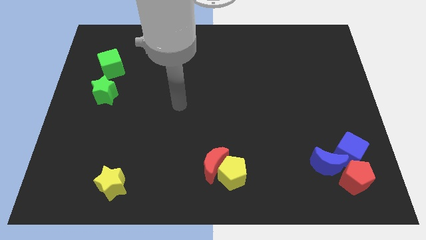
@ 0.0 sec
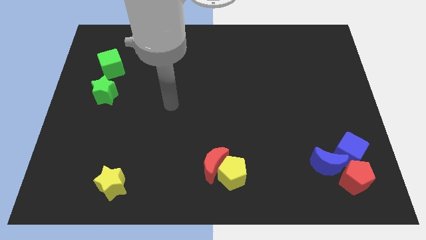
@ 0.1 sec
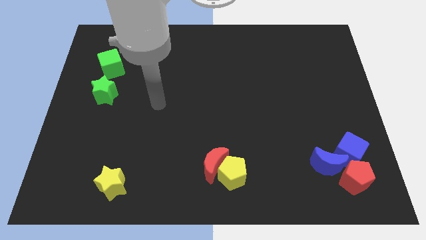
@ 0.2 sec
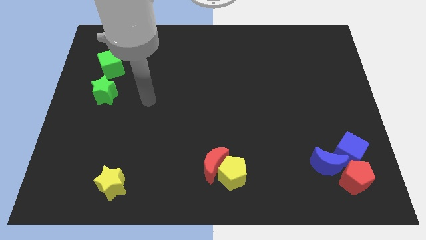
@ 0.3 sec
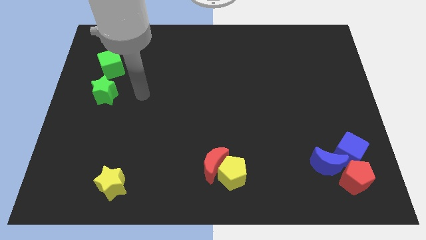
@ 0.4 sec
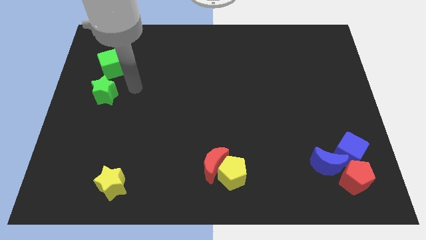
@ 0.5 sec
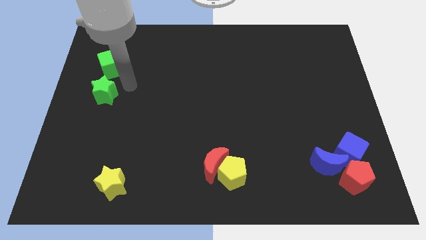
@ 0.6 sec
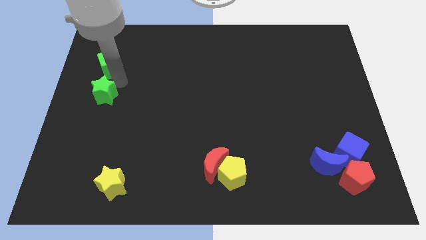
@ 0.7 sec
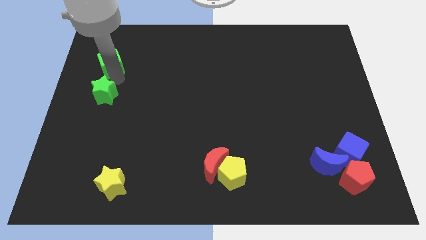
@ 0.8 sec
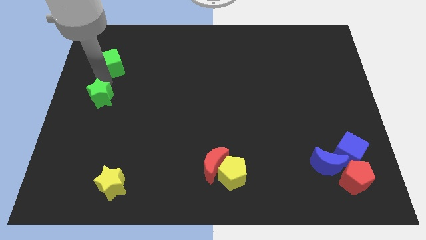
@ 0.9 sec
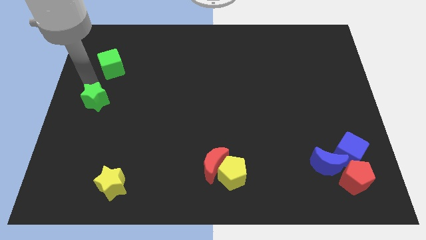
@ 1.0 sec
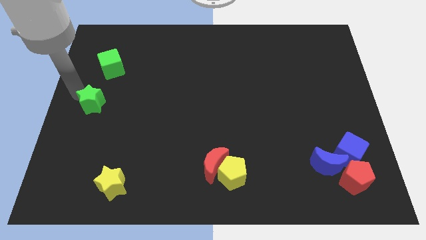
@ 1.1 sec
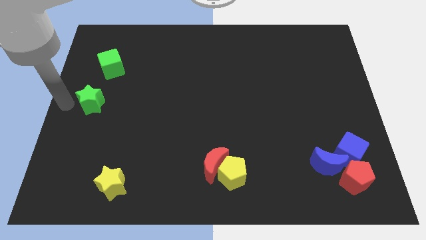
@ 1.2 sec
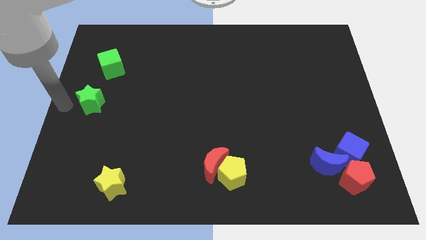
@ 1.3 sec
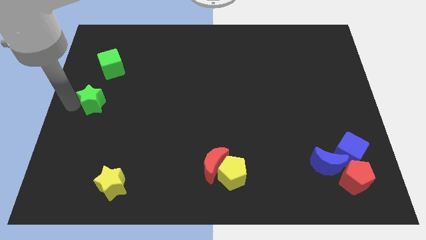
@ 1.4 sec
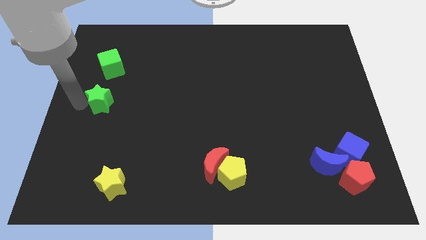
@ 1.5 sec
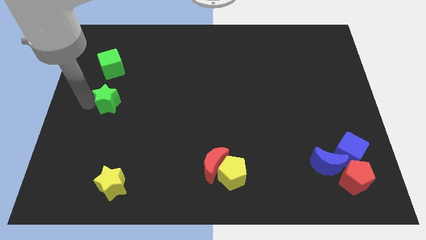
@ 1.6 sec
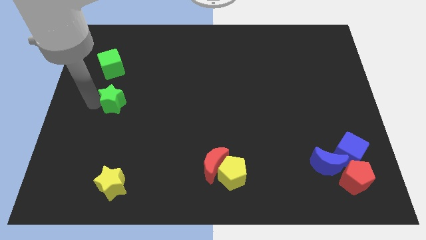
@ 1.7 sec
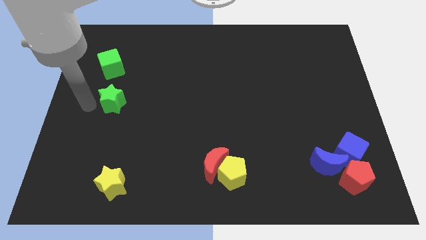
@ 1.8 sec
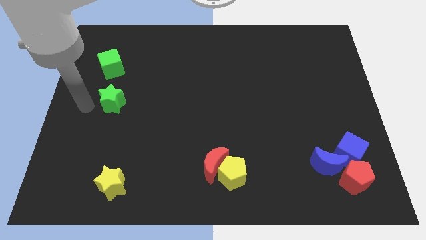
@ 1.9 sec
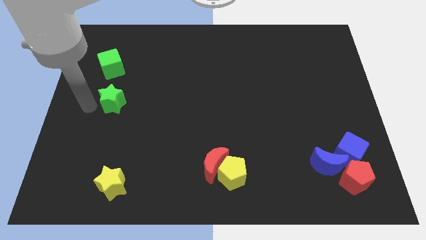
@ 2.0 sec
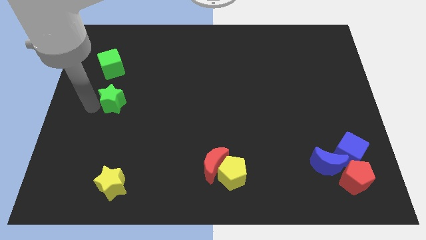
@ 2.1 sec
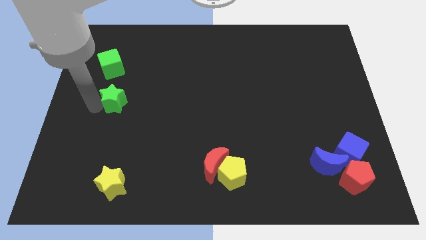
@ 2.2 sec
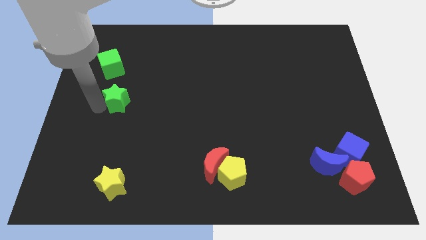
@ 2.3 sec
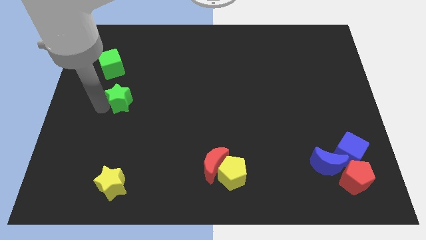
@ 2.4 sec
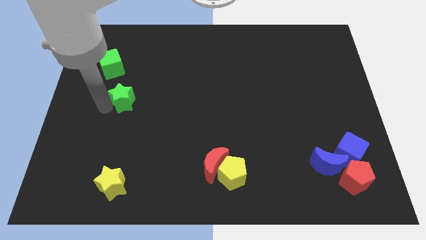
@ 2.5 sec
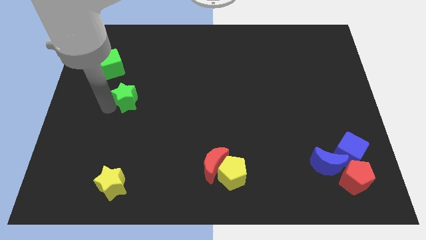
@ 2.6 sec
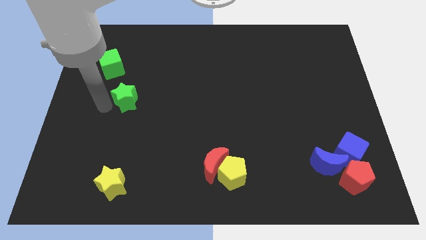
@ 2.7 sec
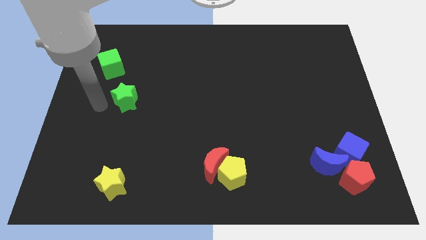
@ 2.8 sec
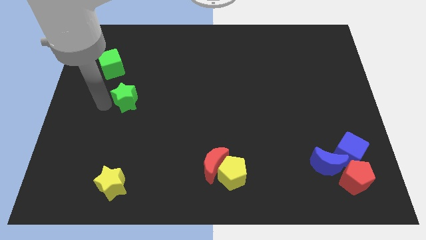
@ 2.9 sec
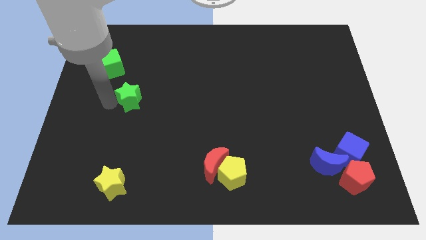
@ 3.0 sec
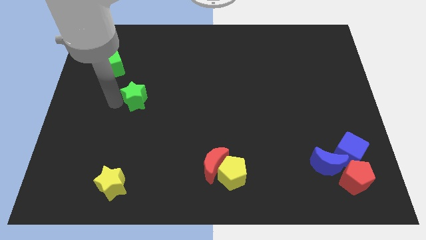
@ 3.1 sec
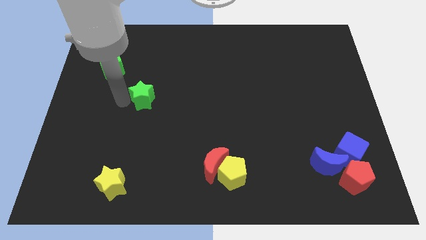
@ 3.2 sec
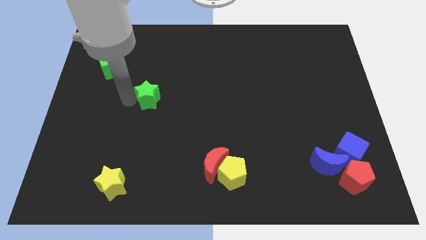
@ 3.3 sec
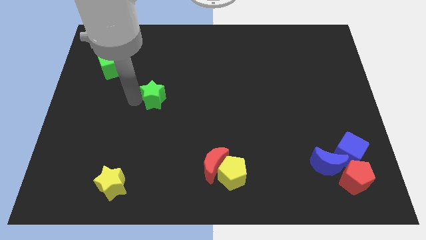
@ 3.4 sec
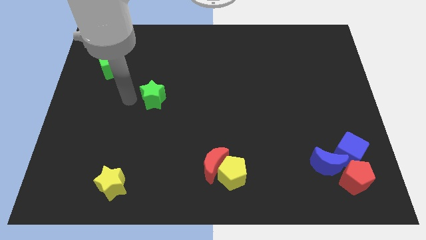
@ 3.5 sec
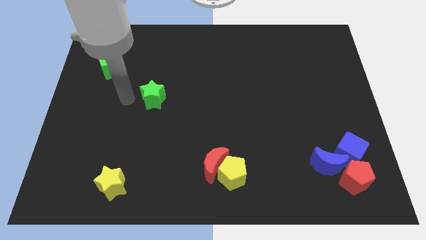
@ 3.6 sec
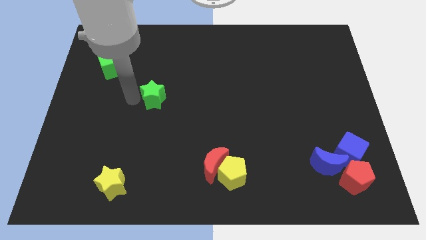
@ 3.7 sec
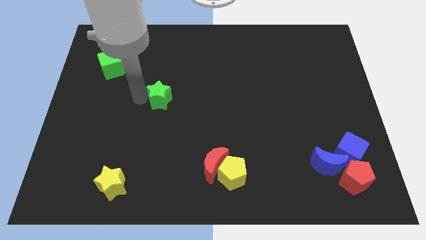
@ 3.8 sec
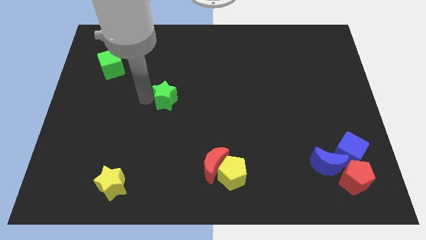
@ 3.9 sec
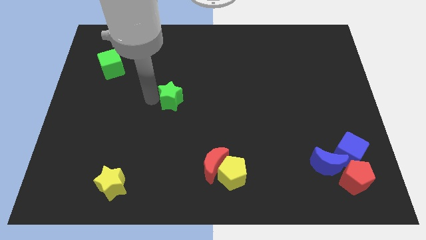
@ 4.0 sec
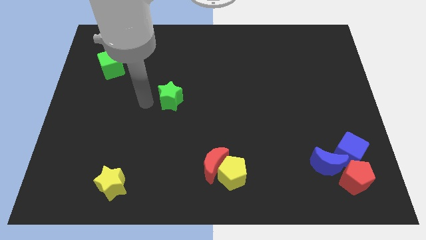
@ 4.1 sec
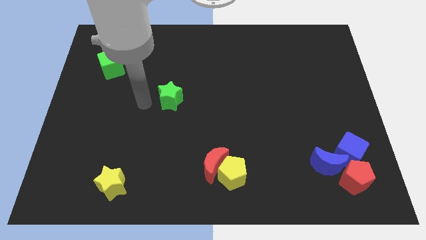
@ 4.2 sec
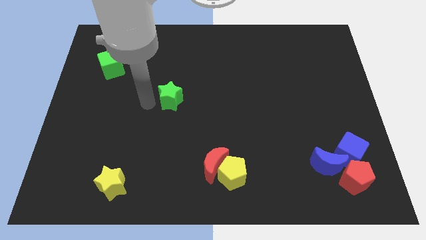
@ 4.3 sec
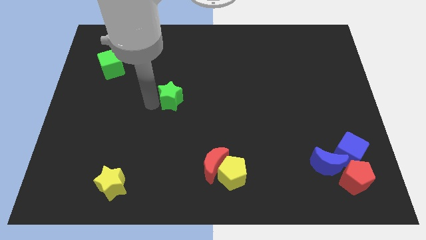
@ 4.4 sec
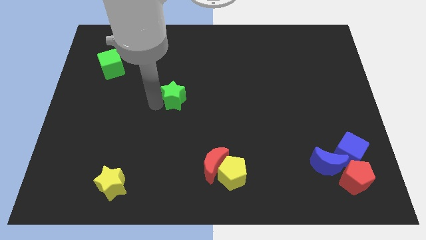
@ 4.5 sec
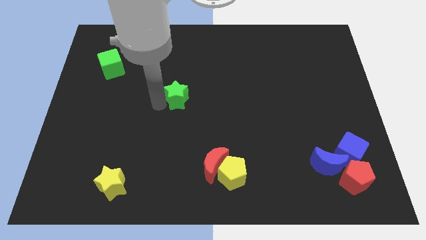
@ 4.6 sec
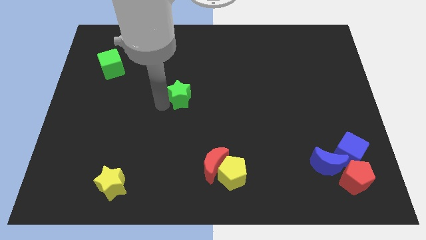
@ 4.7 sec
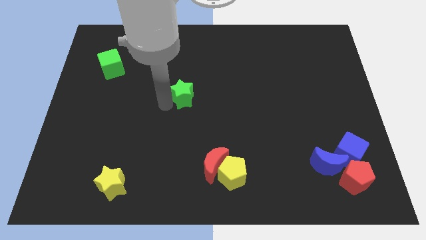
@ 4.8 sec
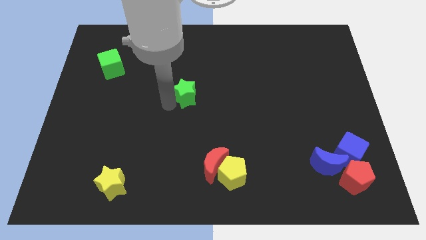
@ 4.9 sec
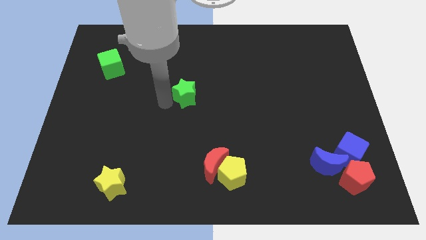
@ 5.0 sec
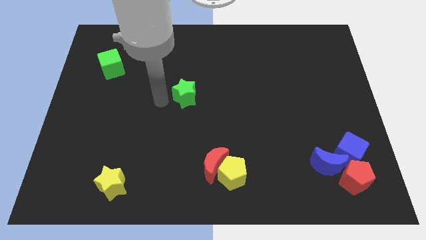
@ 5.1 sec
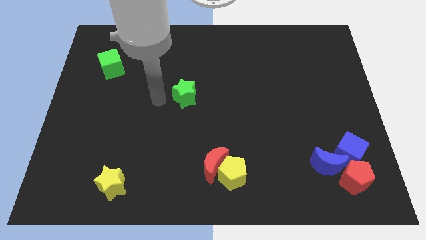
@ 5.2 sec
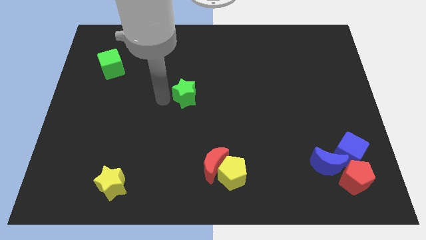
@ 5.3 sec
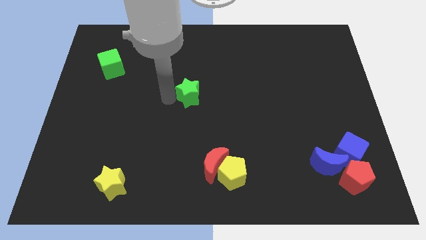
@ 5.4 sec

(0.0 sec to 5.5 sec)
push the green star to the right

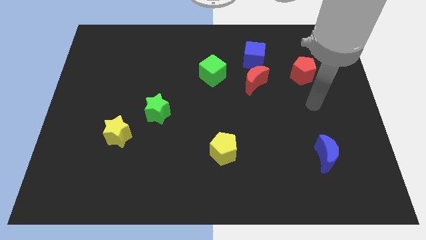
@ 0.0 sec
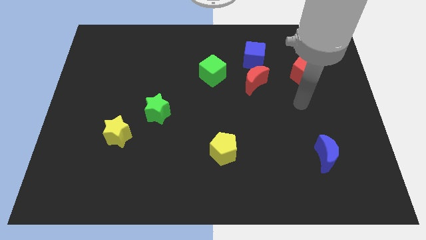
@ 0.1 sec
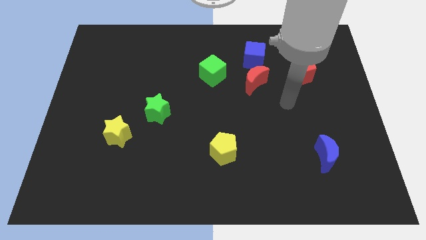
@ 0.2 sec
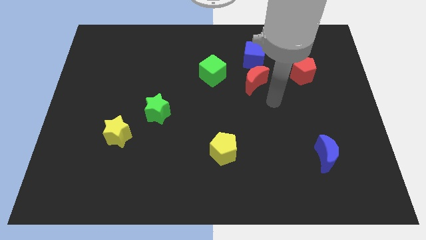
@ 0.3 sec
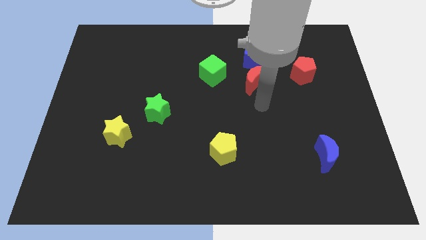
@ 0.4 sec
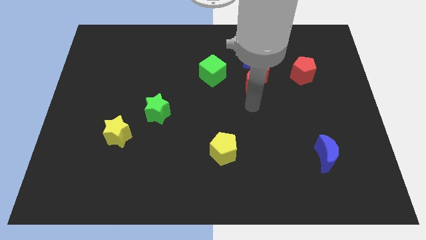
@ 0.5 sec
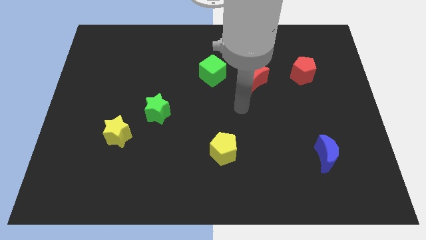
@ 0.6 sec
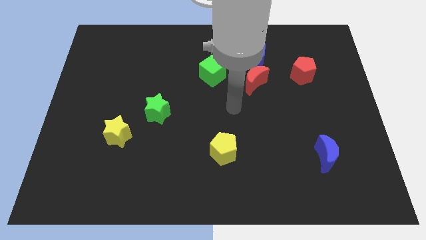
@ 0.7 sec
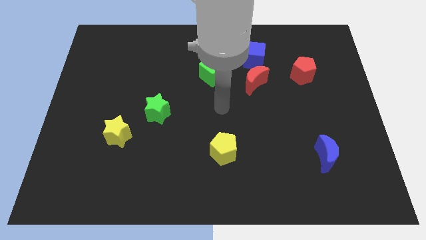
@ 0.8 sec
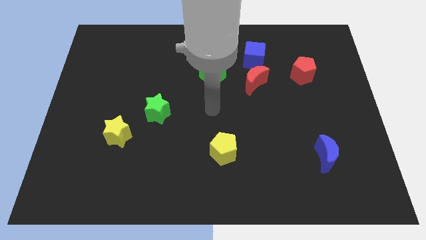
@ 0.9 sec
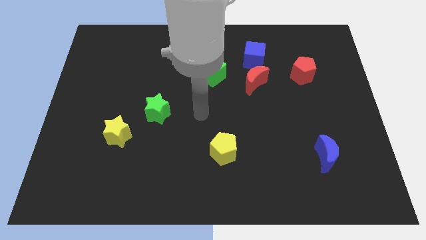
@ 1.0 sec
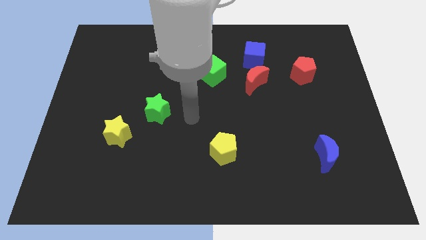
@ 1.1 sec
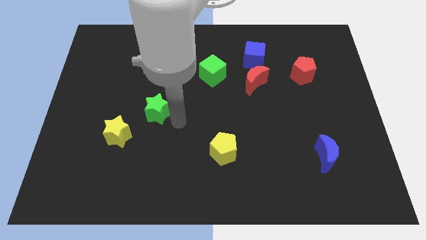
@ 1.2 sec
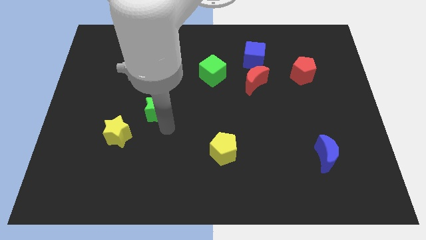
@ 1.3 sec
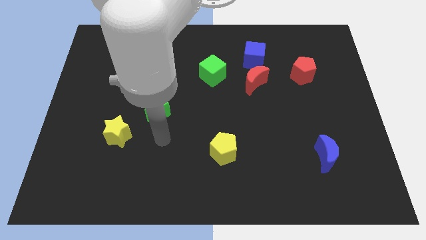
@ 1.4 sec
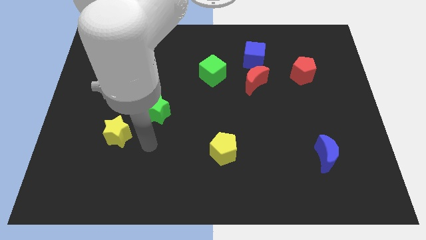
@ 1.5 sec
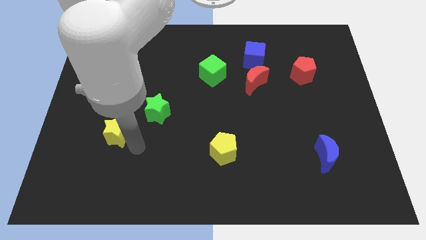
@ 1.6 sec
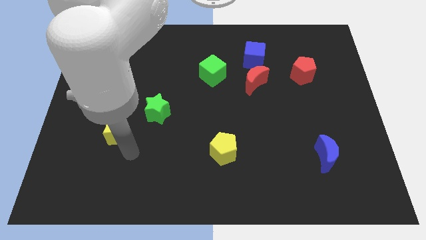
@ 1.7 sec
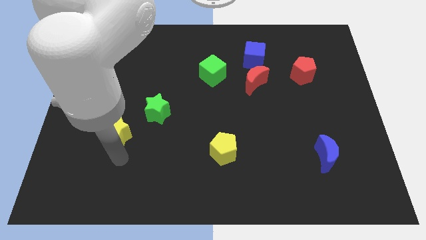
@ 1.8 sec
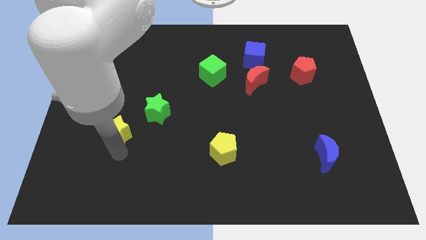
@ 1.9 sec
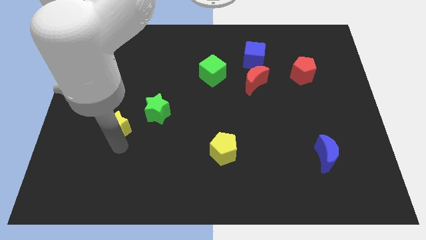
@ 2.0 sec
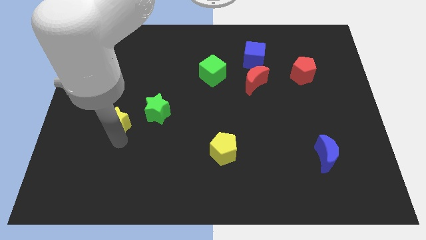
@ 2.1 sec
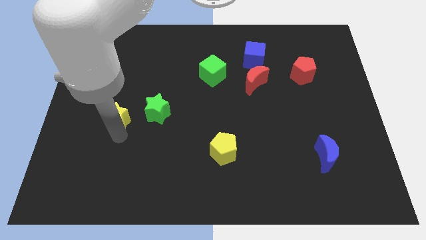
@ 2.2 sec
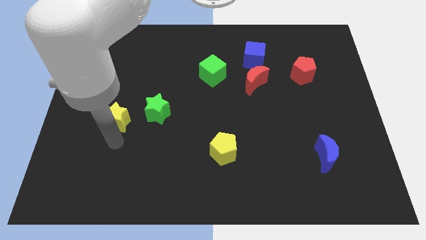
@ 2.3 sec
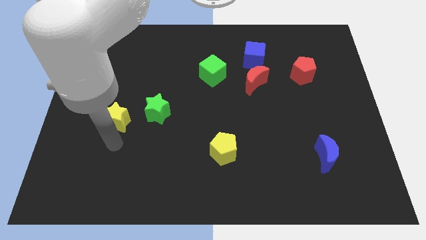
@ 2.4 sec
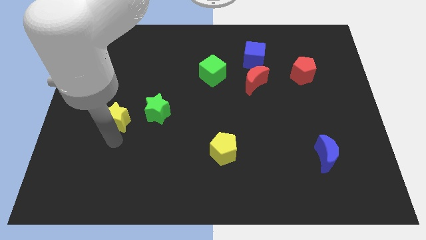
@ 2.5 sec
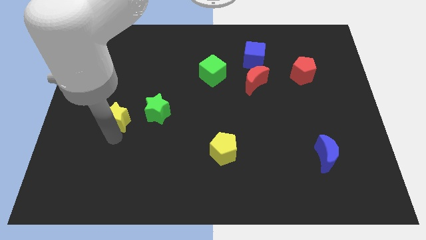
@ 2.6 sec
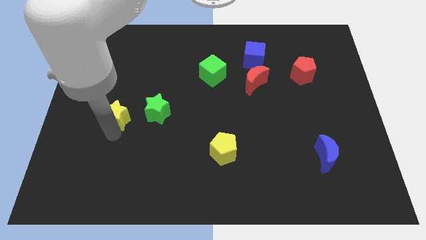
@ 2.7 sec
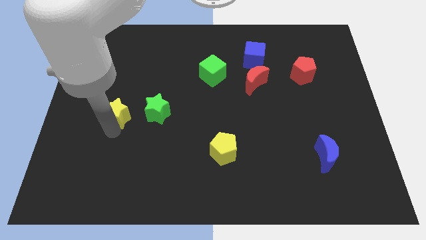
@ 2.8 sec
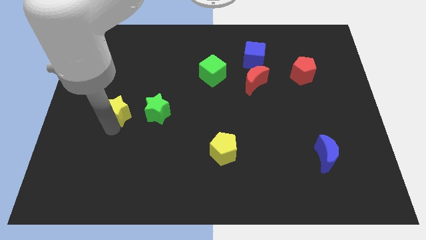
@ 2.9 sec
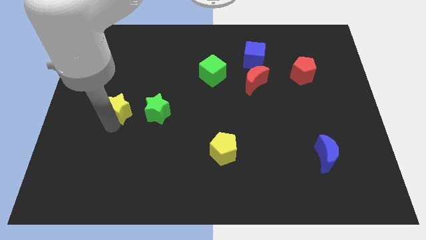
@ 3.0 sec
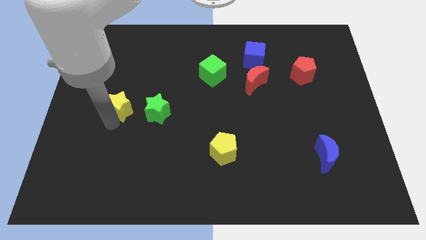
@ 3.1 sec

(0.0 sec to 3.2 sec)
move the yellow star upwards slightly
